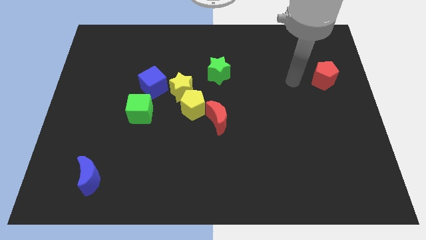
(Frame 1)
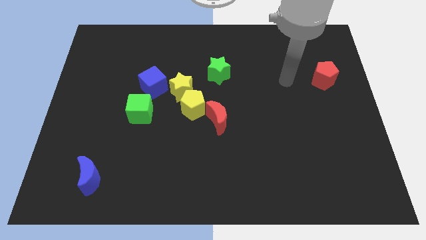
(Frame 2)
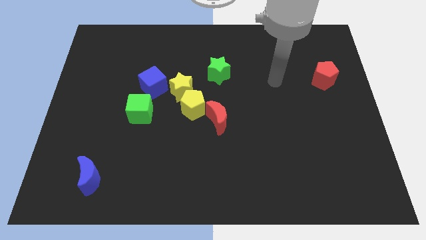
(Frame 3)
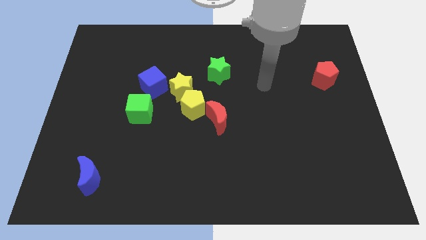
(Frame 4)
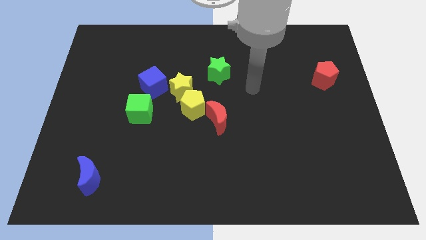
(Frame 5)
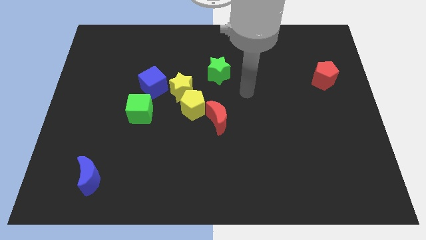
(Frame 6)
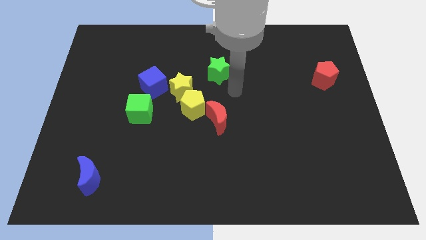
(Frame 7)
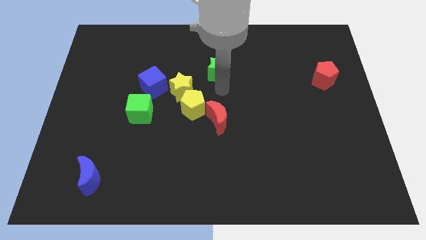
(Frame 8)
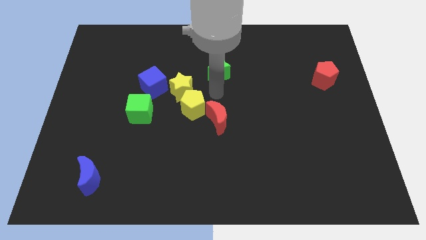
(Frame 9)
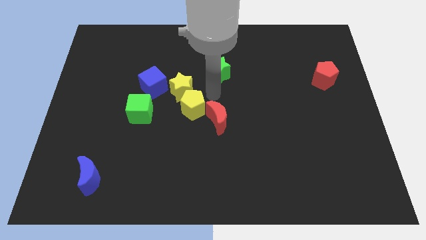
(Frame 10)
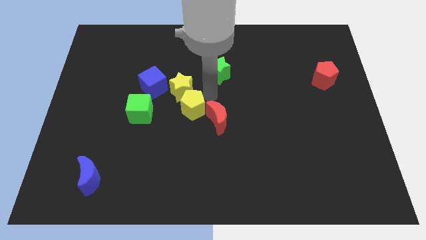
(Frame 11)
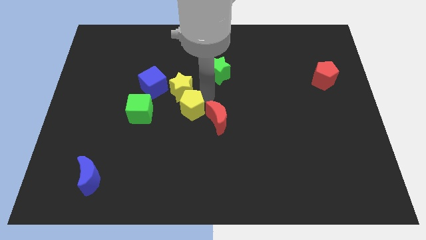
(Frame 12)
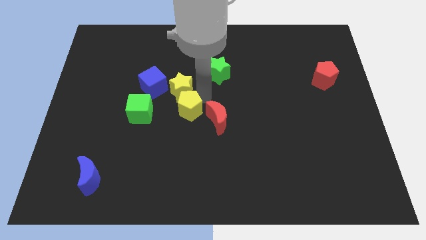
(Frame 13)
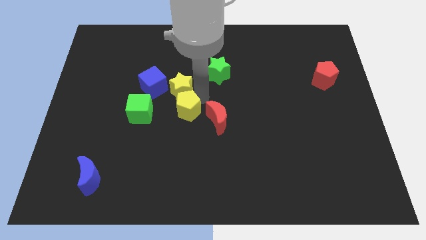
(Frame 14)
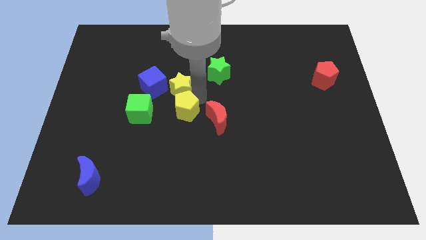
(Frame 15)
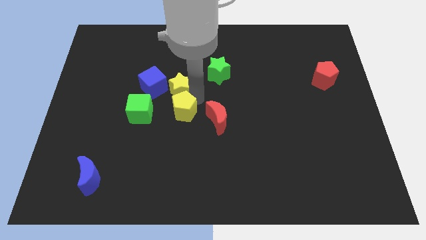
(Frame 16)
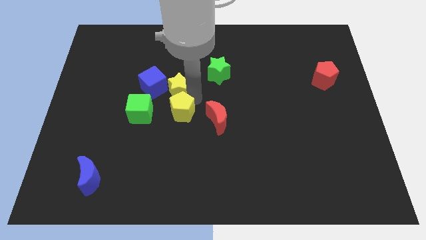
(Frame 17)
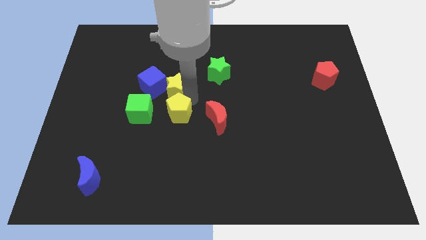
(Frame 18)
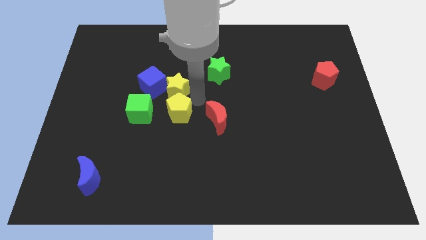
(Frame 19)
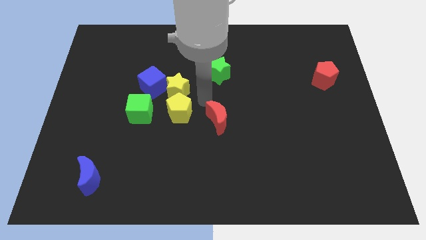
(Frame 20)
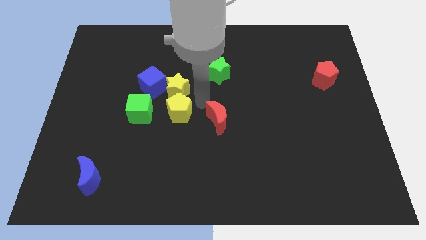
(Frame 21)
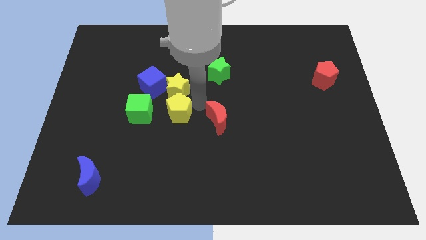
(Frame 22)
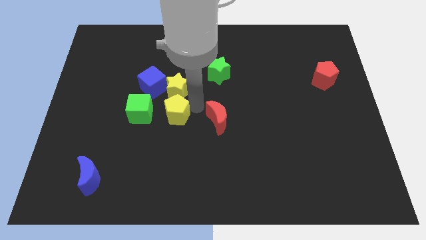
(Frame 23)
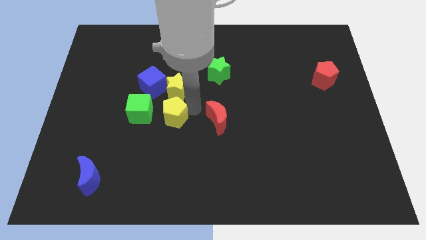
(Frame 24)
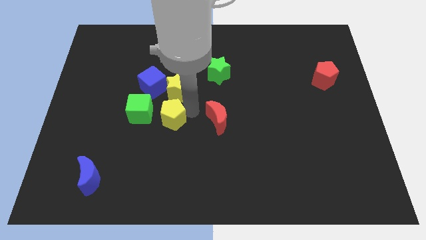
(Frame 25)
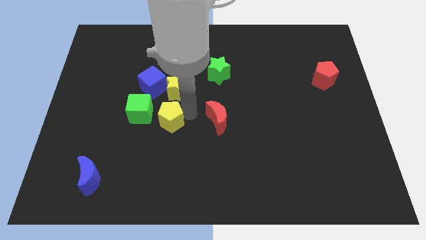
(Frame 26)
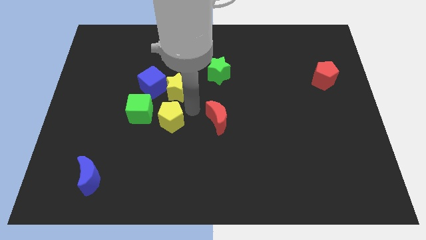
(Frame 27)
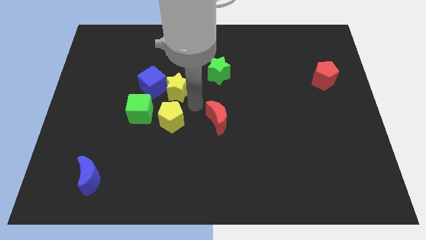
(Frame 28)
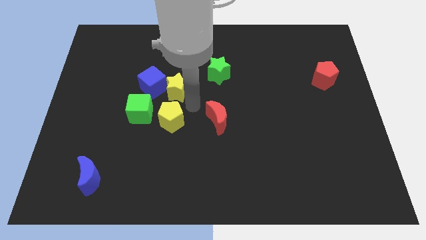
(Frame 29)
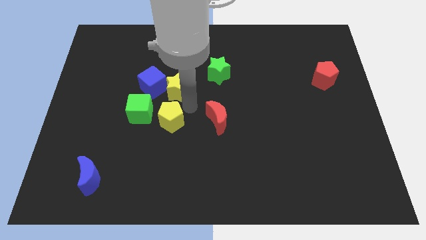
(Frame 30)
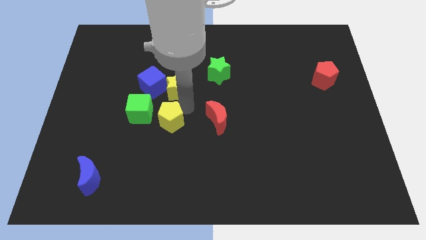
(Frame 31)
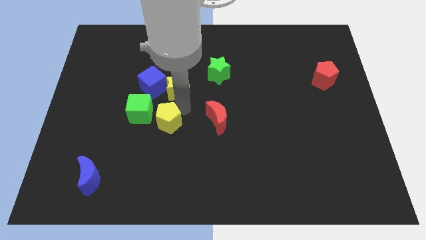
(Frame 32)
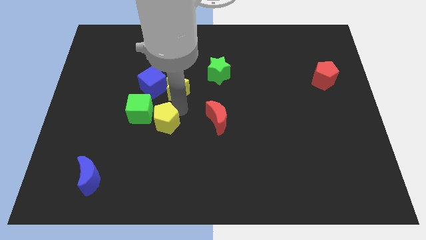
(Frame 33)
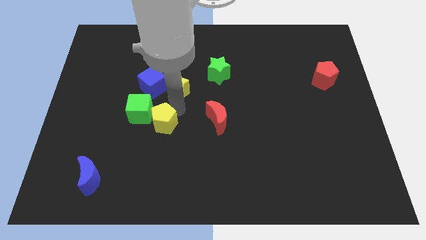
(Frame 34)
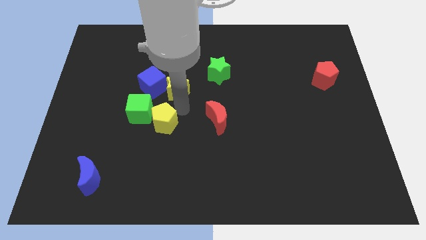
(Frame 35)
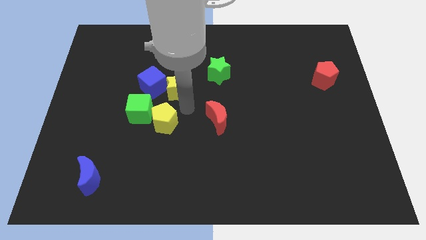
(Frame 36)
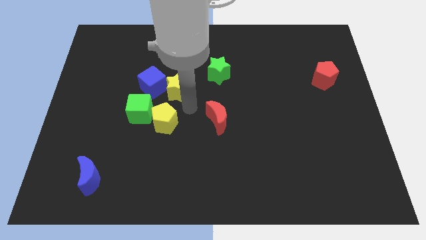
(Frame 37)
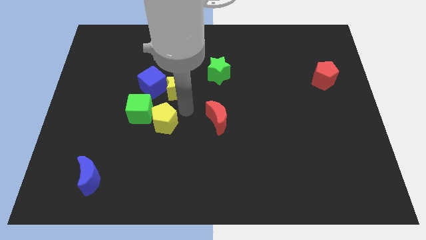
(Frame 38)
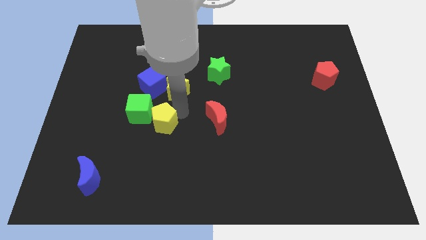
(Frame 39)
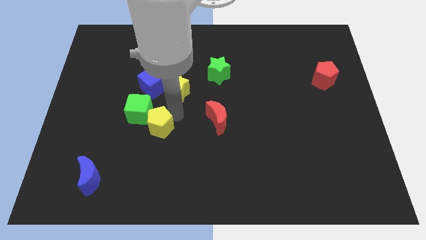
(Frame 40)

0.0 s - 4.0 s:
pull the yellow pentagon apart from the yellow star and red moon

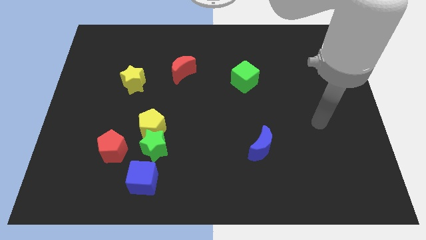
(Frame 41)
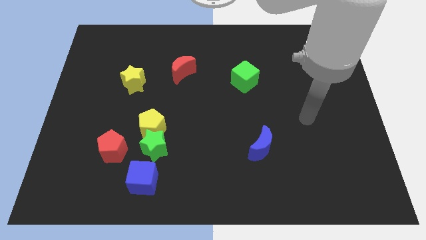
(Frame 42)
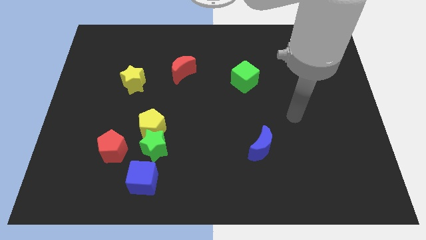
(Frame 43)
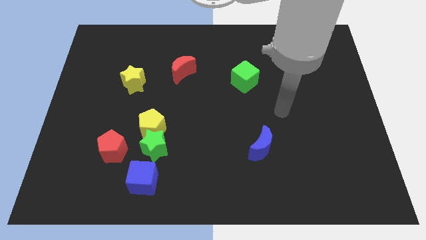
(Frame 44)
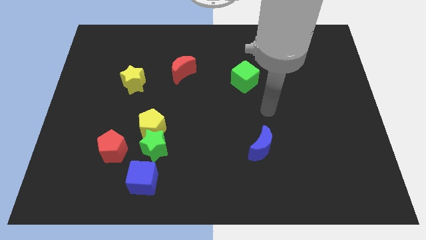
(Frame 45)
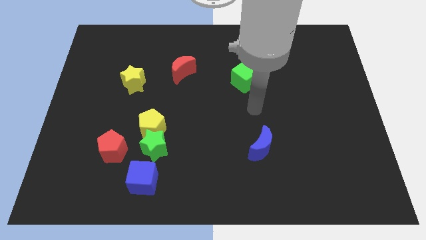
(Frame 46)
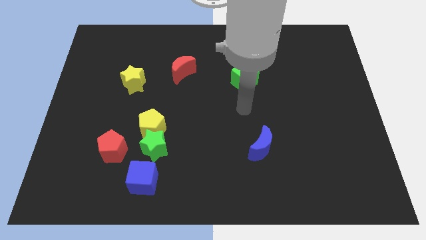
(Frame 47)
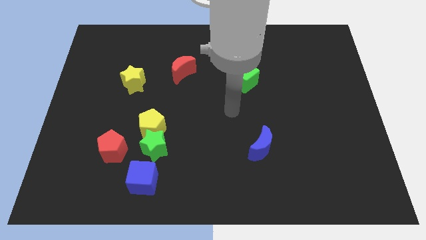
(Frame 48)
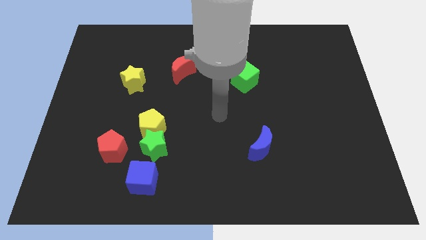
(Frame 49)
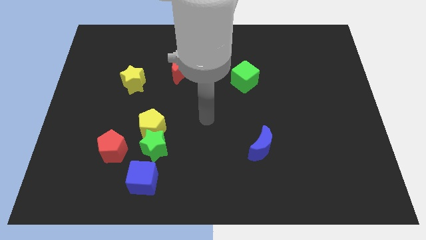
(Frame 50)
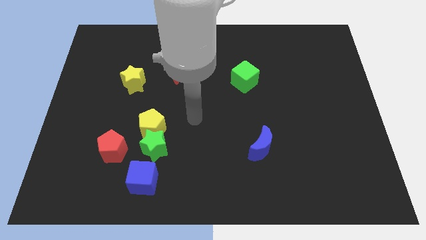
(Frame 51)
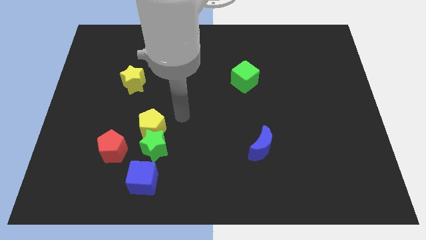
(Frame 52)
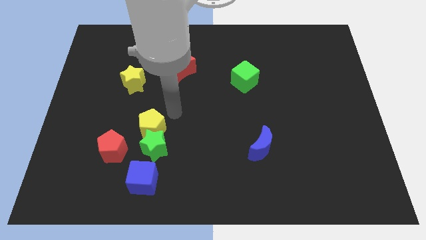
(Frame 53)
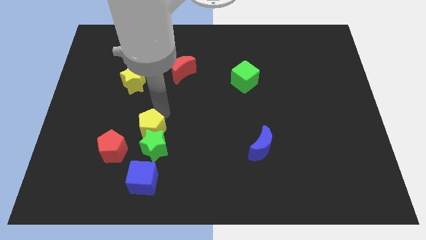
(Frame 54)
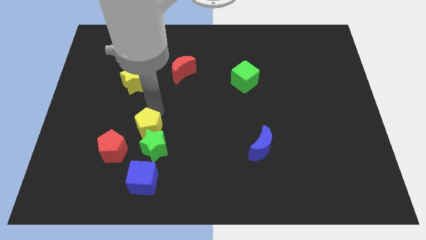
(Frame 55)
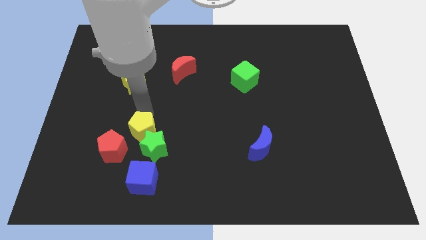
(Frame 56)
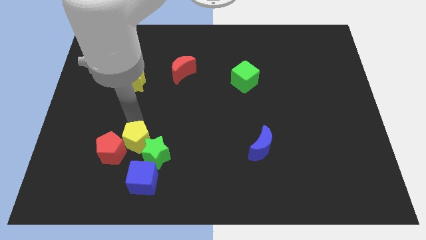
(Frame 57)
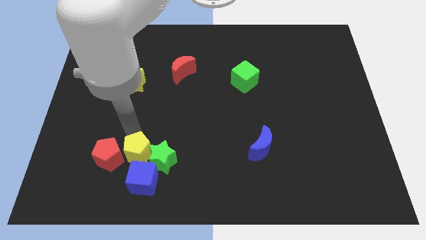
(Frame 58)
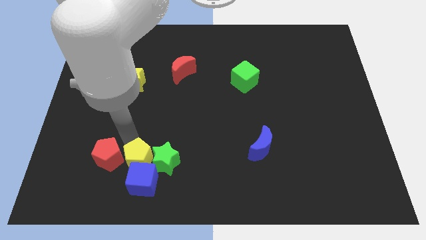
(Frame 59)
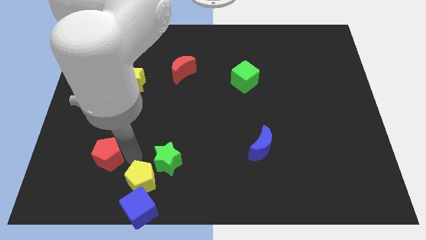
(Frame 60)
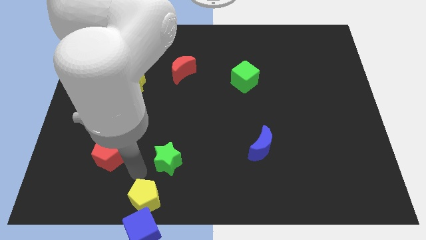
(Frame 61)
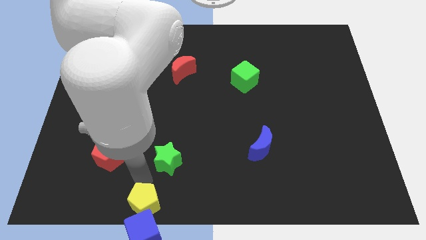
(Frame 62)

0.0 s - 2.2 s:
move the green star away from the group of blocks

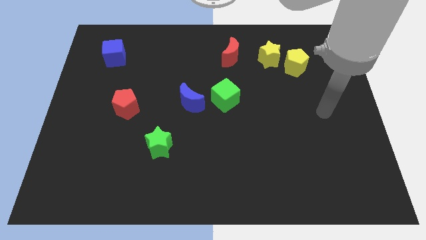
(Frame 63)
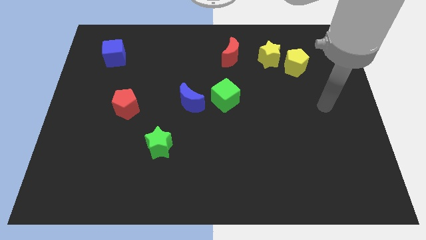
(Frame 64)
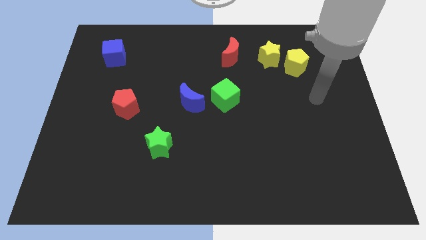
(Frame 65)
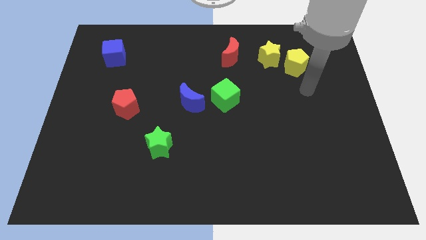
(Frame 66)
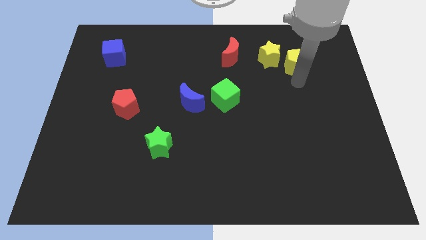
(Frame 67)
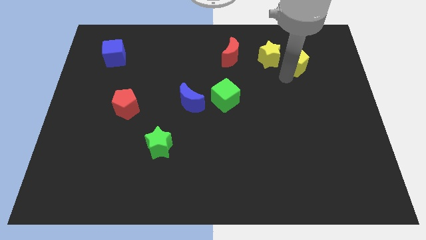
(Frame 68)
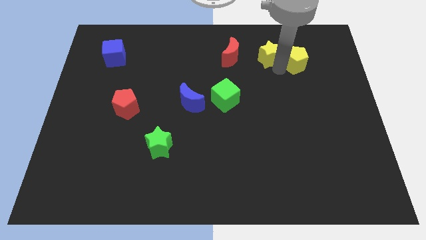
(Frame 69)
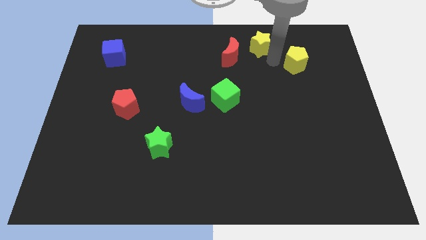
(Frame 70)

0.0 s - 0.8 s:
separate the yellow pentagon from the yellow star

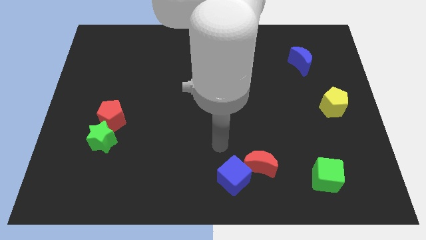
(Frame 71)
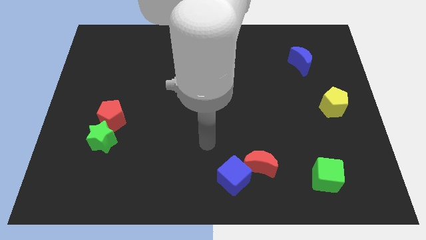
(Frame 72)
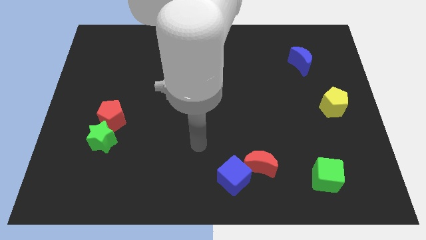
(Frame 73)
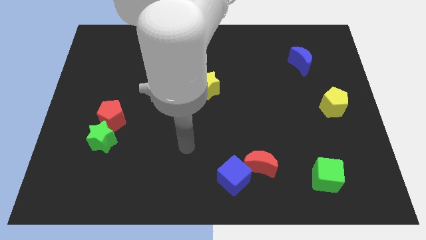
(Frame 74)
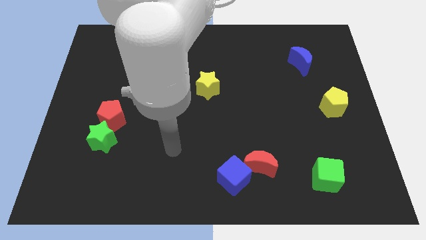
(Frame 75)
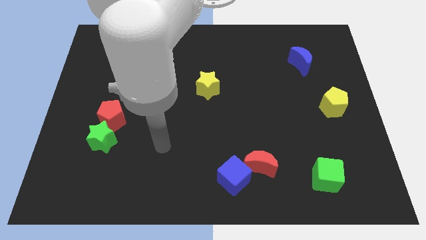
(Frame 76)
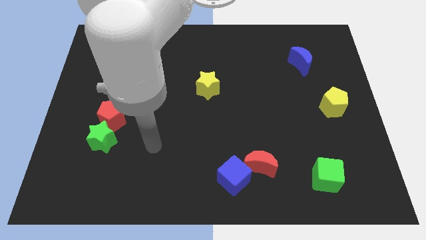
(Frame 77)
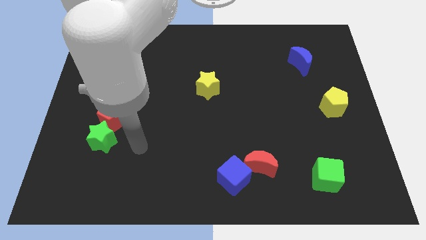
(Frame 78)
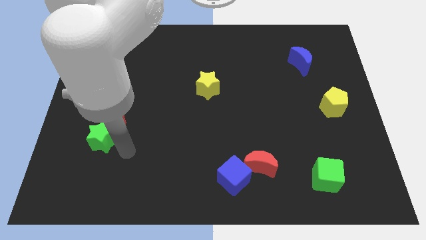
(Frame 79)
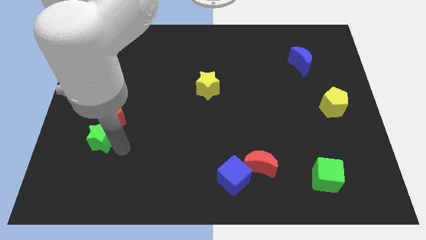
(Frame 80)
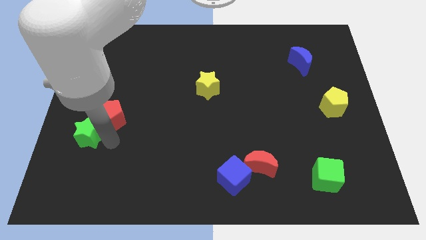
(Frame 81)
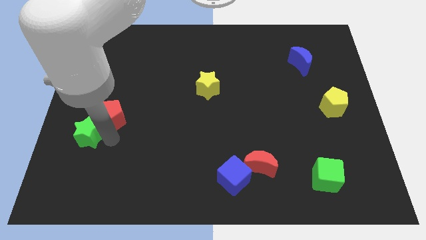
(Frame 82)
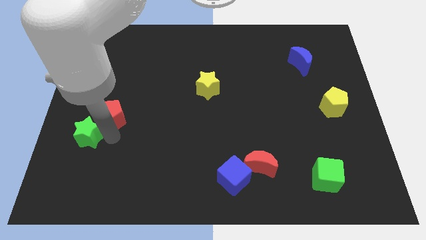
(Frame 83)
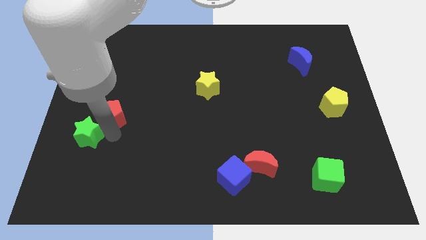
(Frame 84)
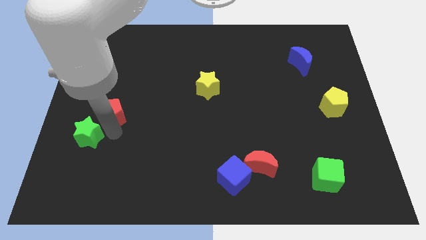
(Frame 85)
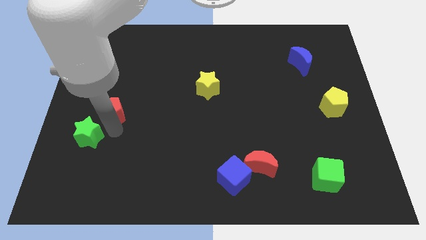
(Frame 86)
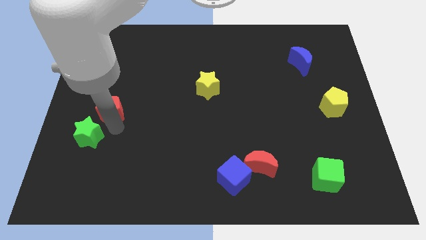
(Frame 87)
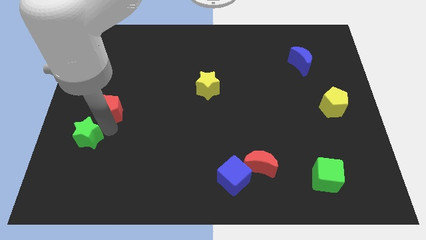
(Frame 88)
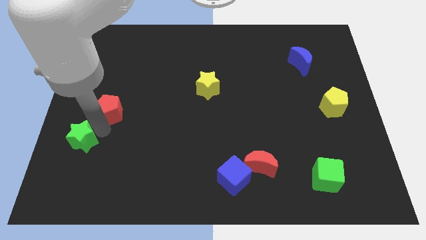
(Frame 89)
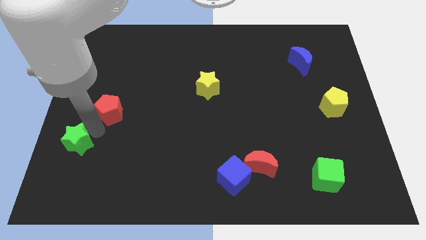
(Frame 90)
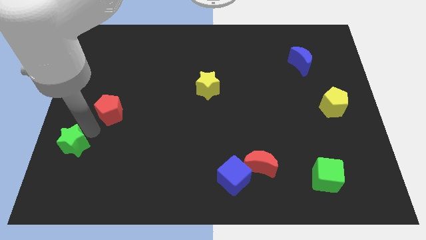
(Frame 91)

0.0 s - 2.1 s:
pull the red pentagon apart from the green star

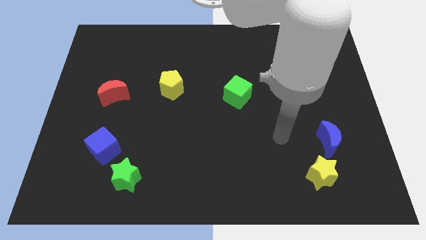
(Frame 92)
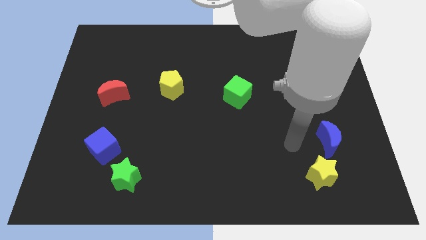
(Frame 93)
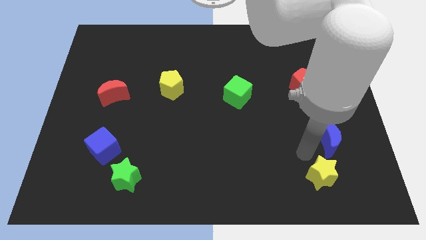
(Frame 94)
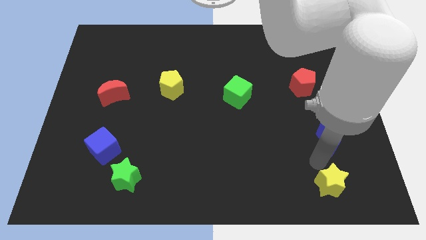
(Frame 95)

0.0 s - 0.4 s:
move the blue moon away from the yellow star
